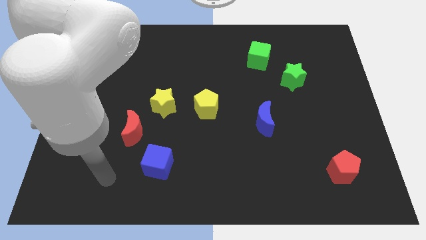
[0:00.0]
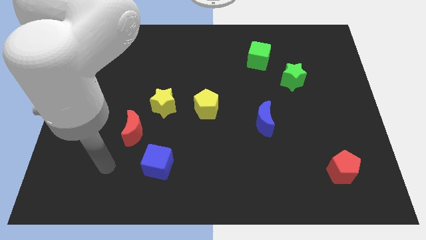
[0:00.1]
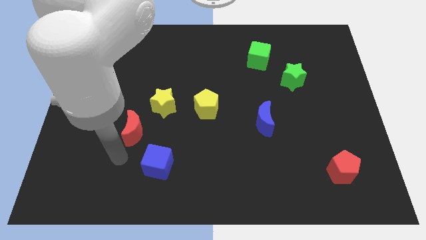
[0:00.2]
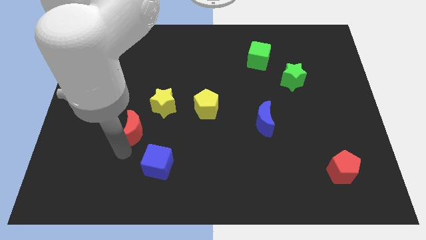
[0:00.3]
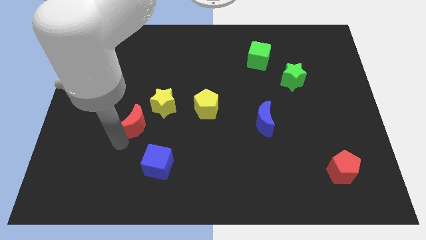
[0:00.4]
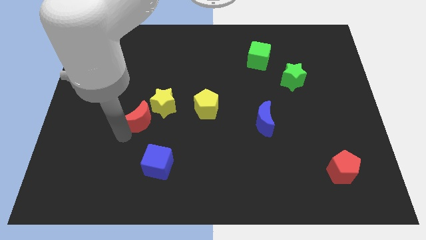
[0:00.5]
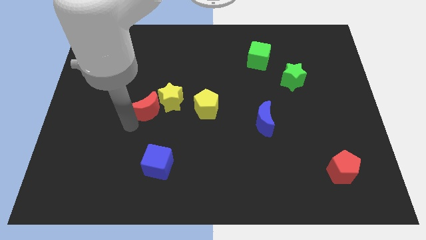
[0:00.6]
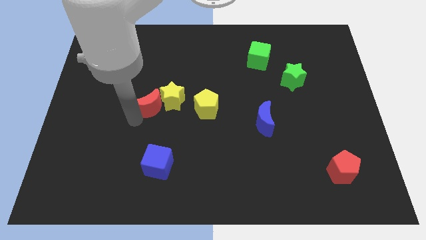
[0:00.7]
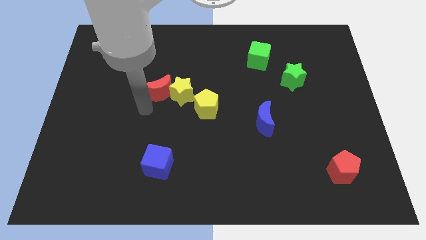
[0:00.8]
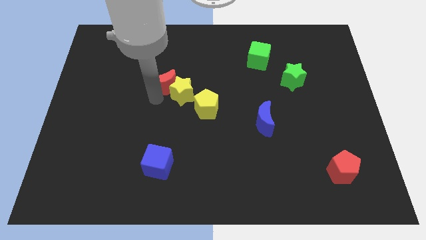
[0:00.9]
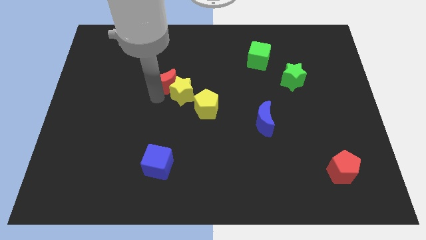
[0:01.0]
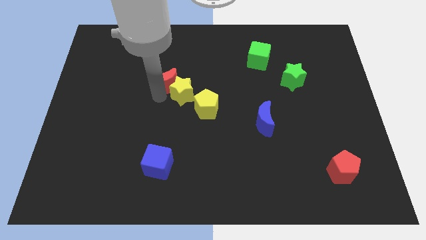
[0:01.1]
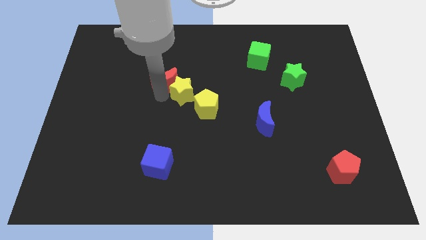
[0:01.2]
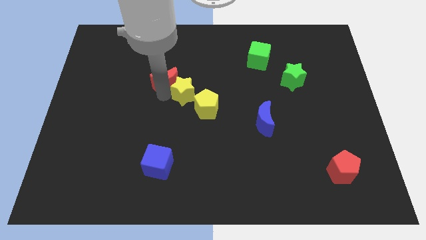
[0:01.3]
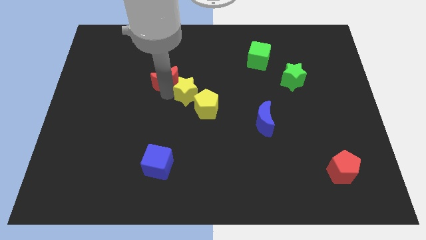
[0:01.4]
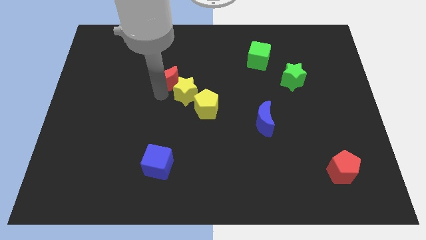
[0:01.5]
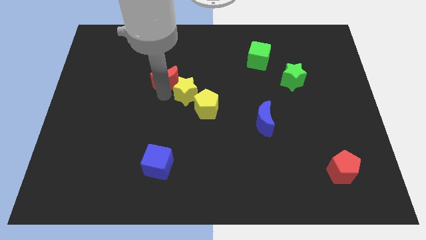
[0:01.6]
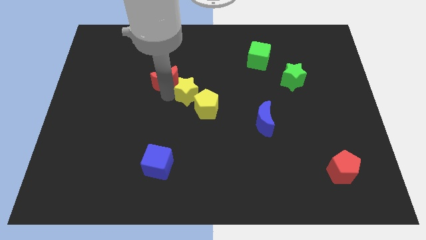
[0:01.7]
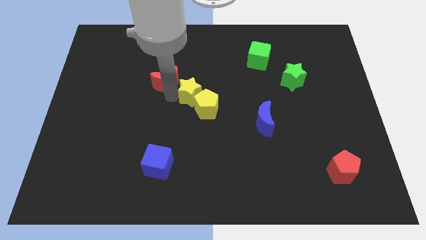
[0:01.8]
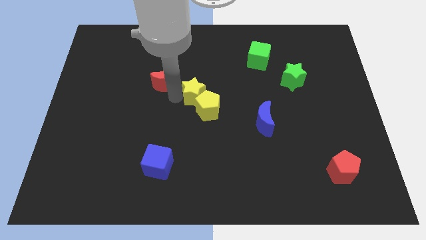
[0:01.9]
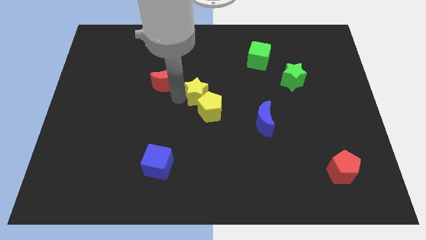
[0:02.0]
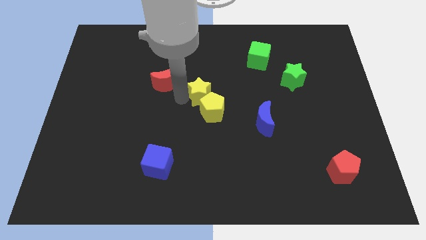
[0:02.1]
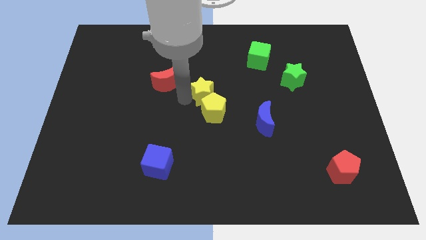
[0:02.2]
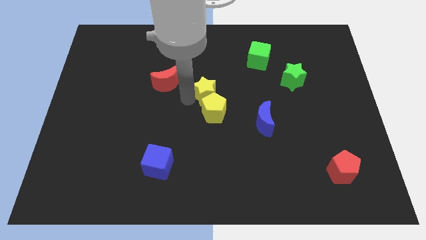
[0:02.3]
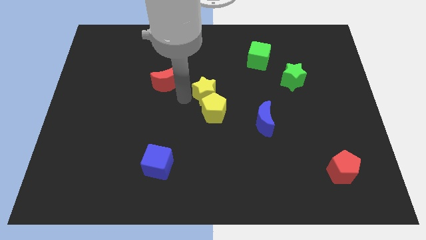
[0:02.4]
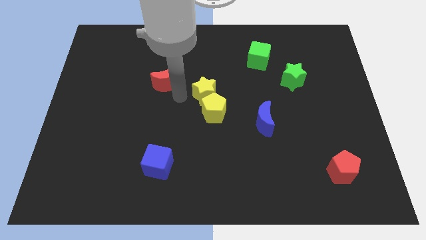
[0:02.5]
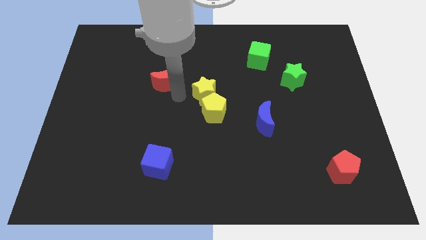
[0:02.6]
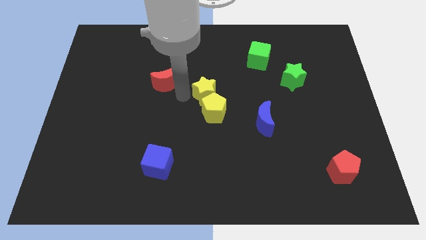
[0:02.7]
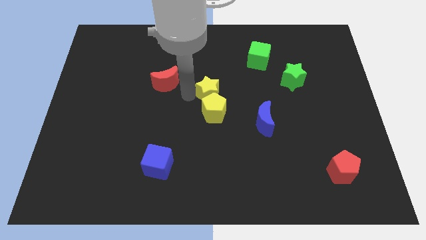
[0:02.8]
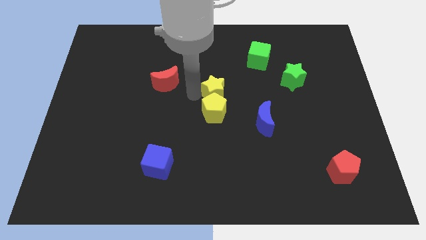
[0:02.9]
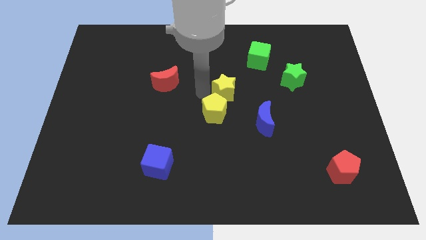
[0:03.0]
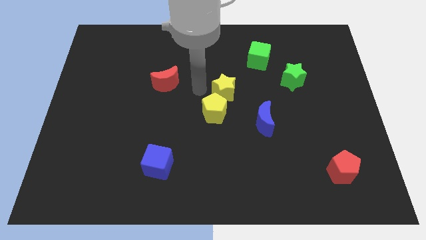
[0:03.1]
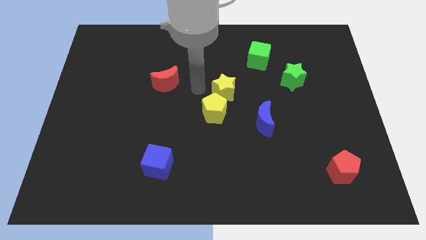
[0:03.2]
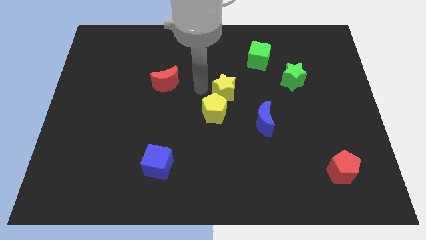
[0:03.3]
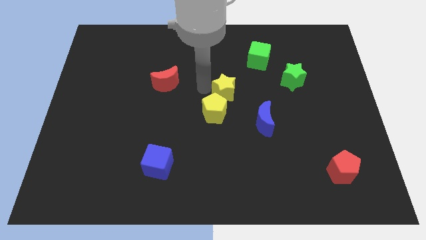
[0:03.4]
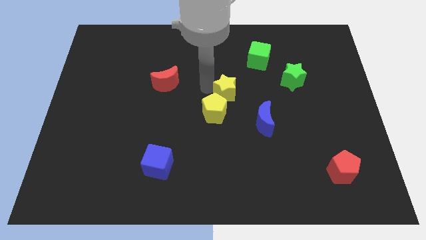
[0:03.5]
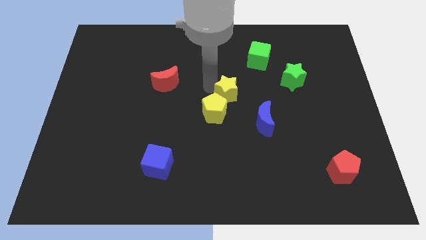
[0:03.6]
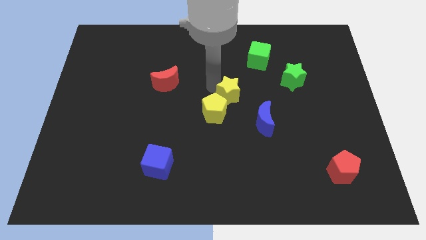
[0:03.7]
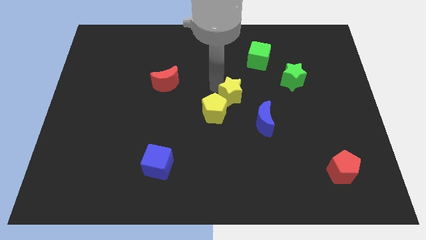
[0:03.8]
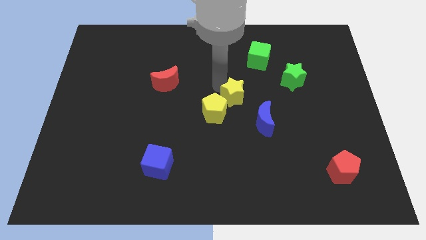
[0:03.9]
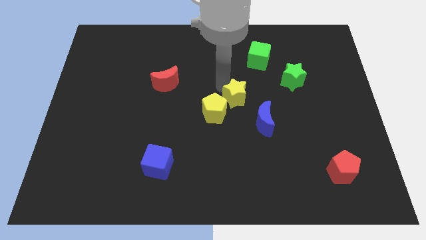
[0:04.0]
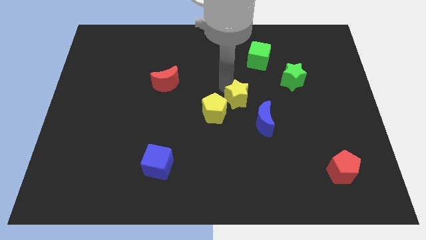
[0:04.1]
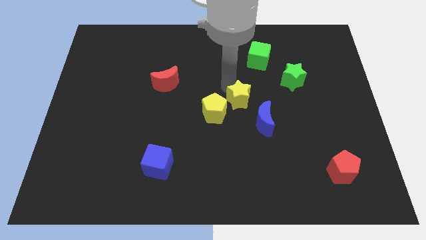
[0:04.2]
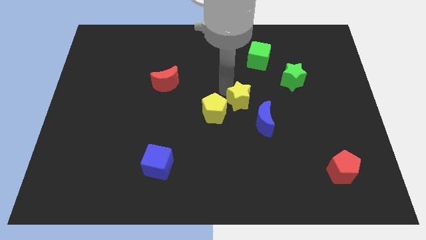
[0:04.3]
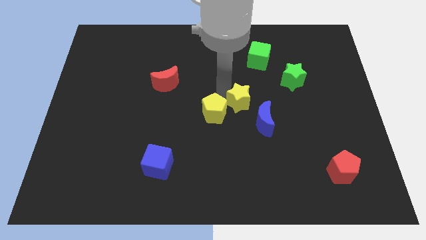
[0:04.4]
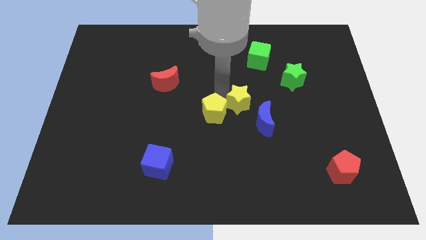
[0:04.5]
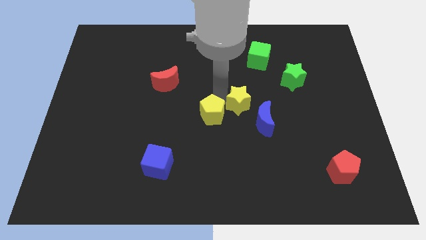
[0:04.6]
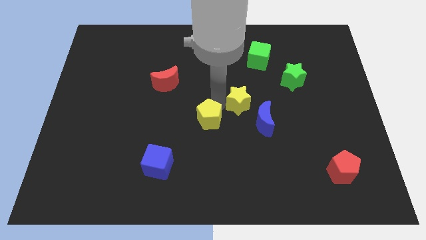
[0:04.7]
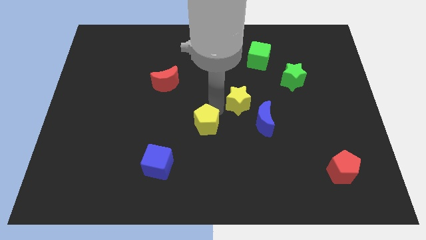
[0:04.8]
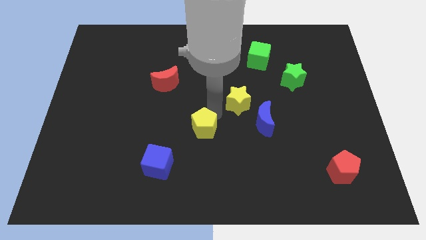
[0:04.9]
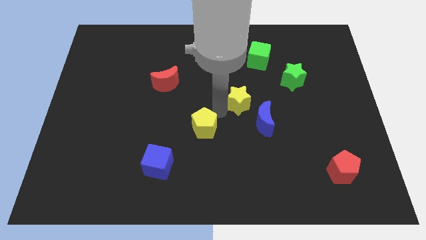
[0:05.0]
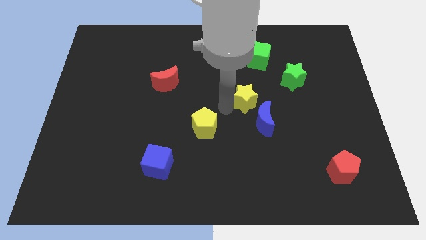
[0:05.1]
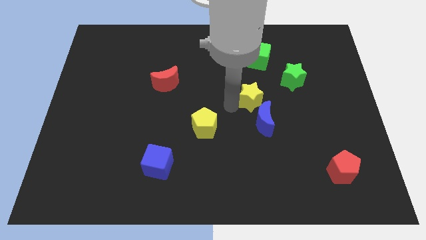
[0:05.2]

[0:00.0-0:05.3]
push the yellow star right

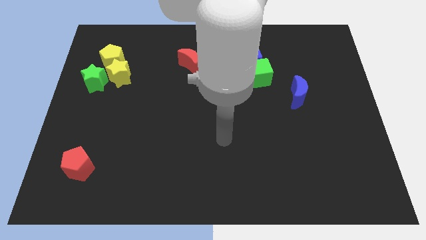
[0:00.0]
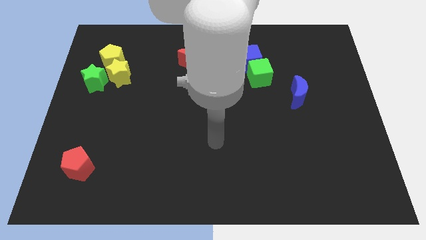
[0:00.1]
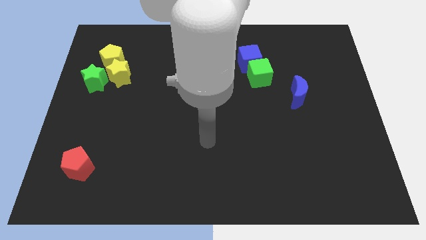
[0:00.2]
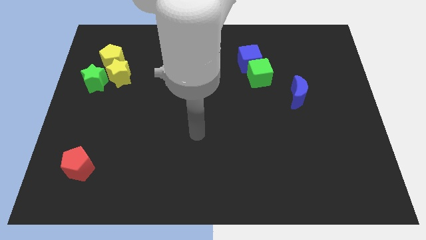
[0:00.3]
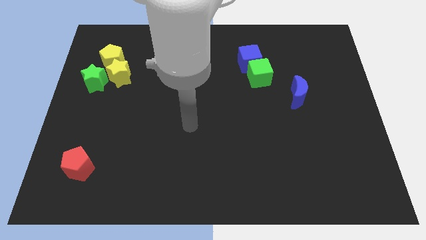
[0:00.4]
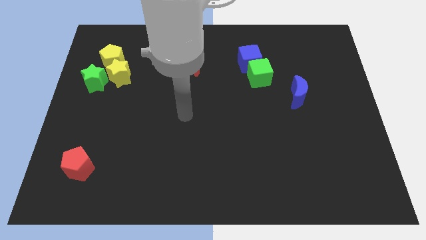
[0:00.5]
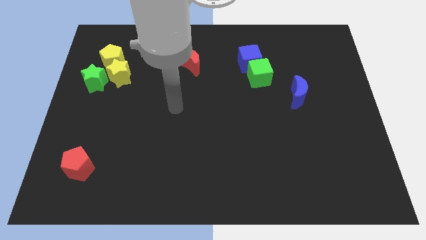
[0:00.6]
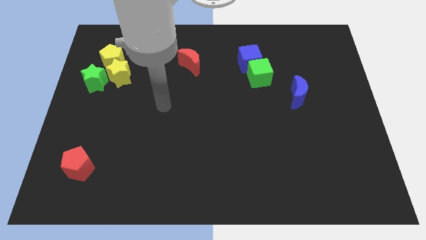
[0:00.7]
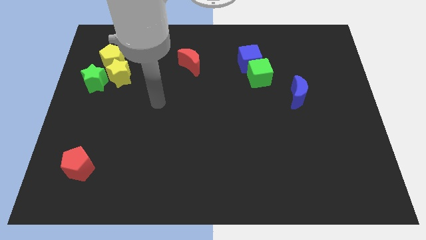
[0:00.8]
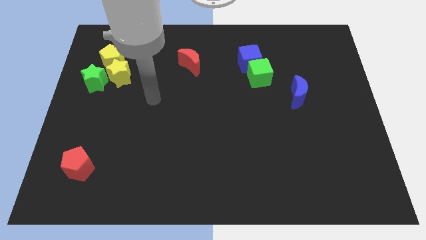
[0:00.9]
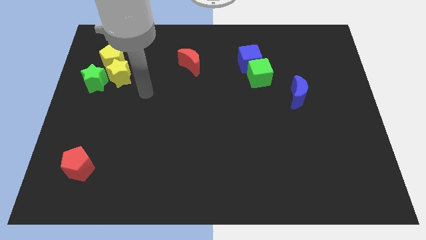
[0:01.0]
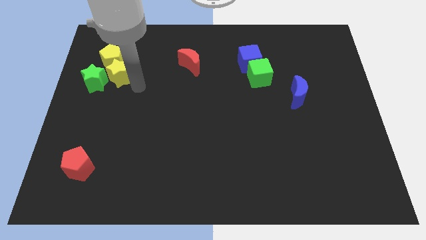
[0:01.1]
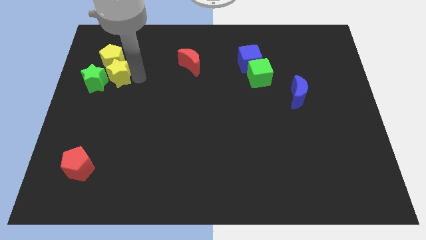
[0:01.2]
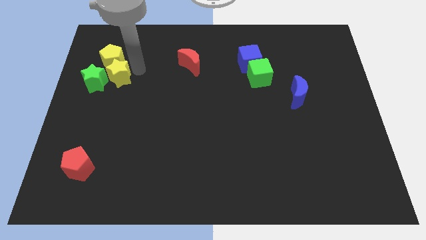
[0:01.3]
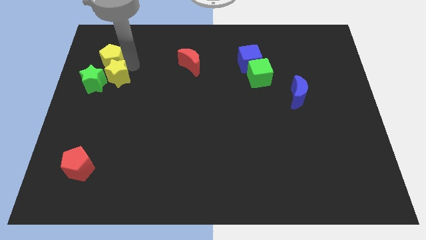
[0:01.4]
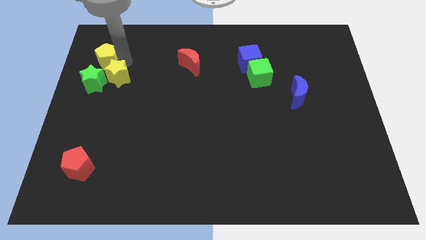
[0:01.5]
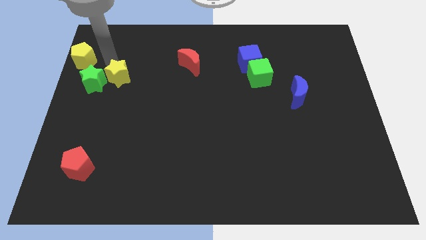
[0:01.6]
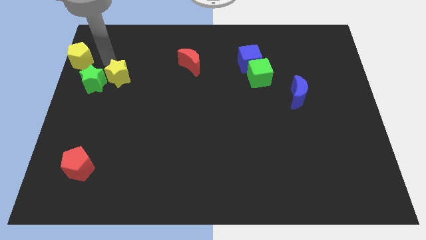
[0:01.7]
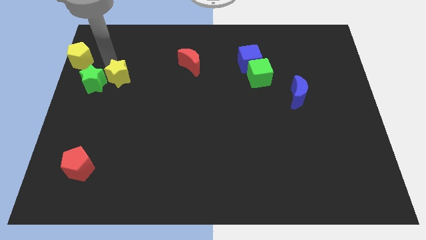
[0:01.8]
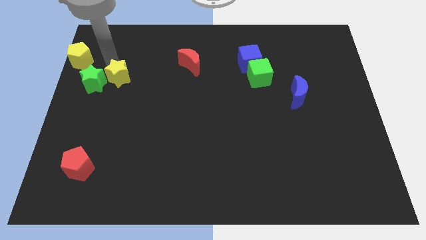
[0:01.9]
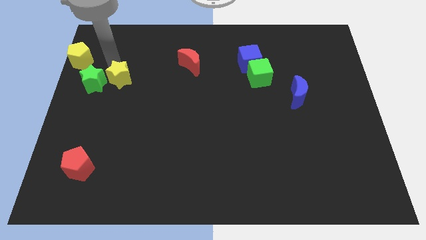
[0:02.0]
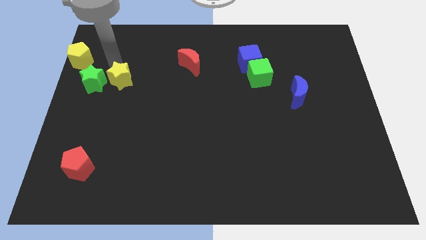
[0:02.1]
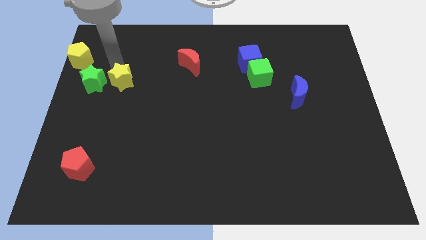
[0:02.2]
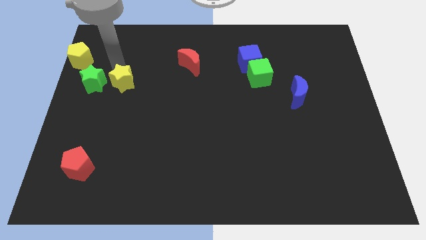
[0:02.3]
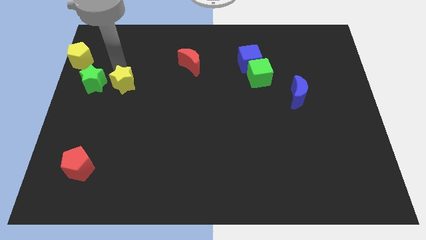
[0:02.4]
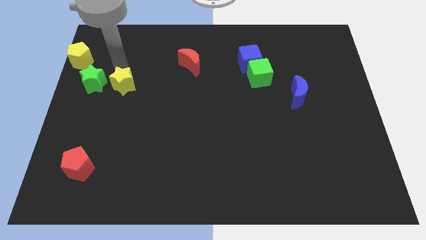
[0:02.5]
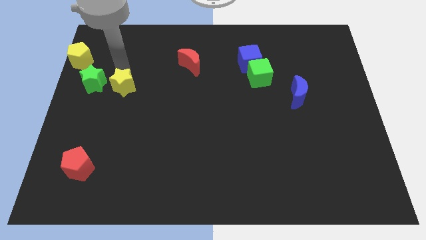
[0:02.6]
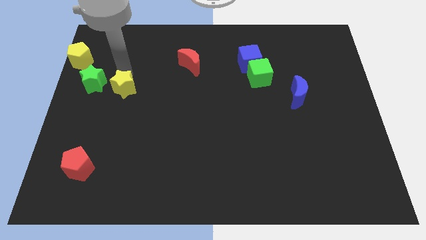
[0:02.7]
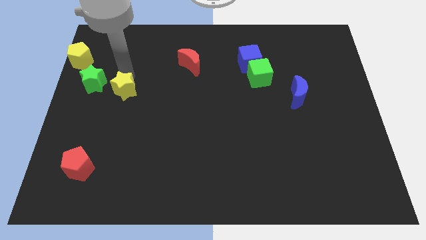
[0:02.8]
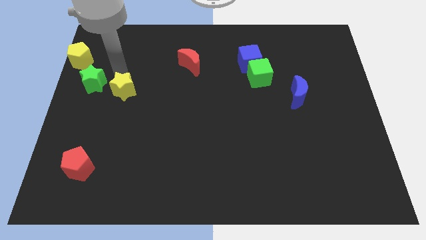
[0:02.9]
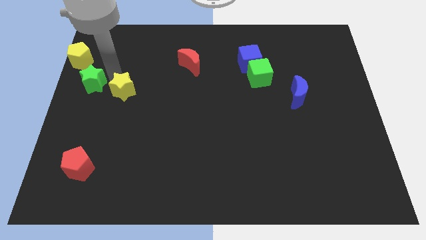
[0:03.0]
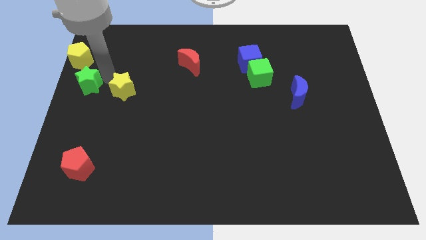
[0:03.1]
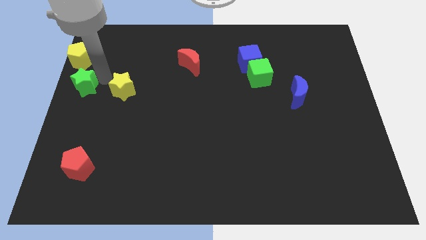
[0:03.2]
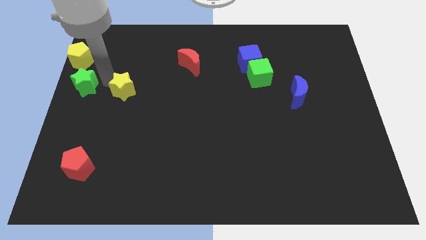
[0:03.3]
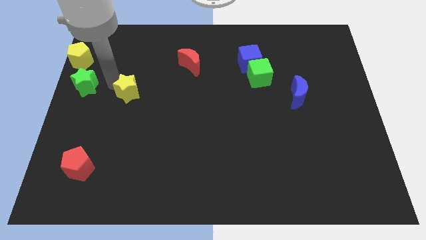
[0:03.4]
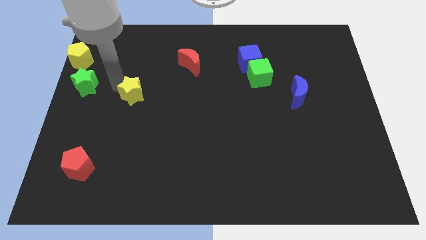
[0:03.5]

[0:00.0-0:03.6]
slide the yellow star downwards and then to the right a little
